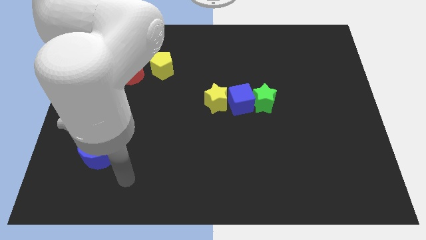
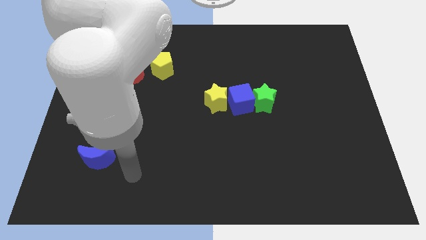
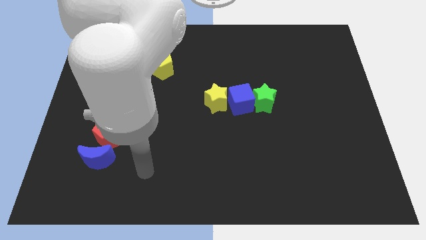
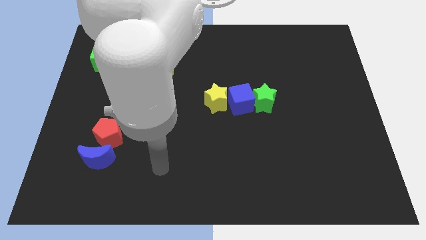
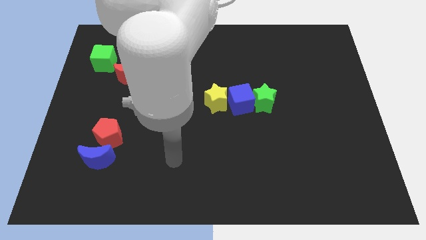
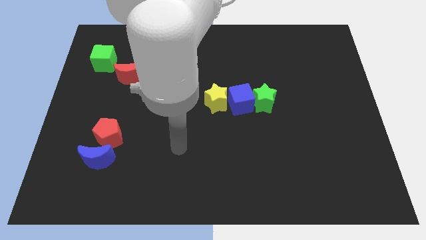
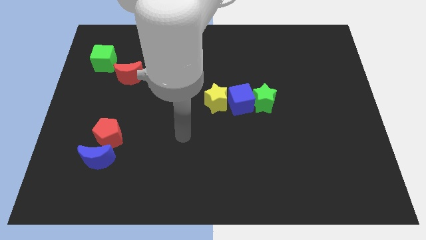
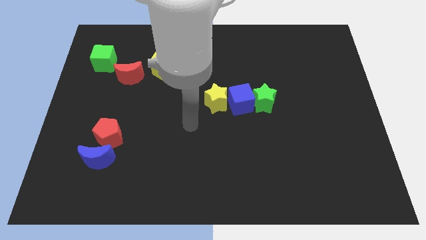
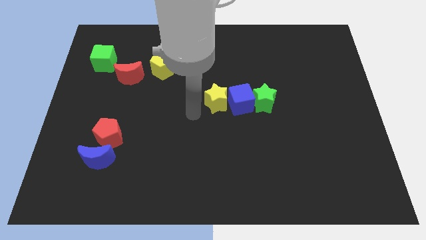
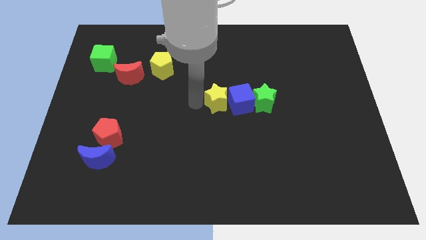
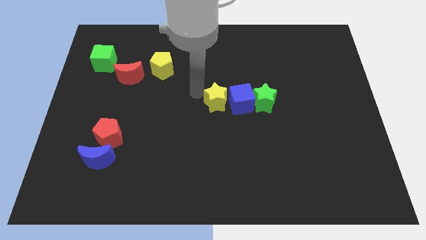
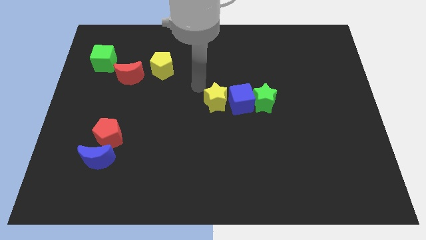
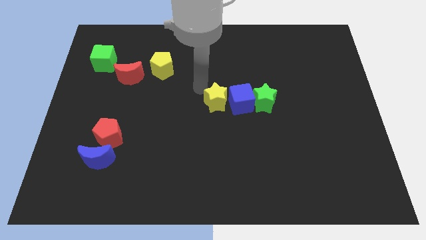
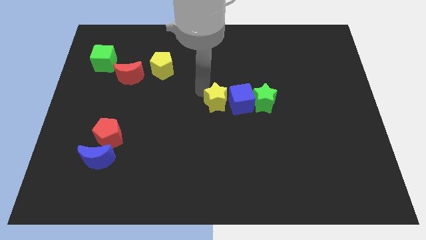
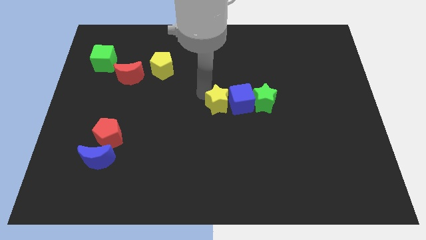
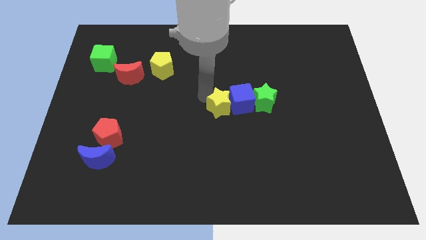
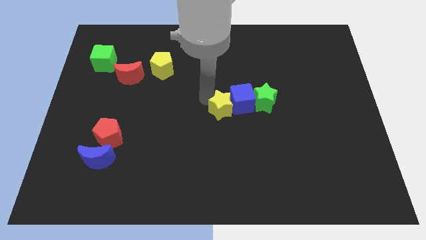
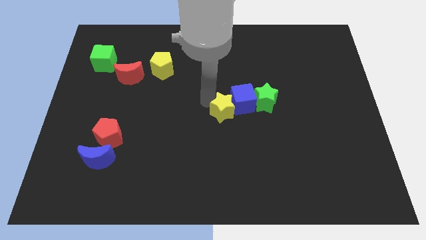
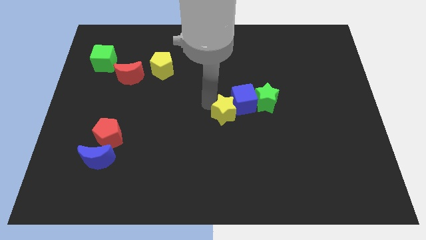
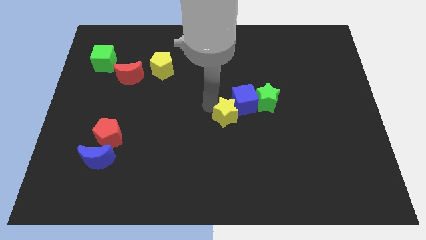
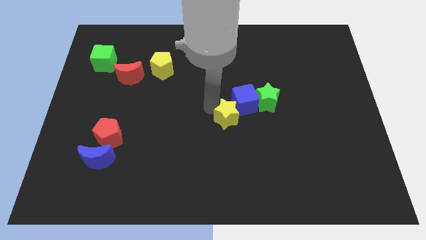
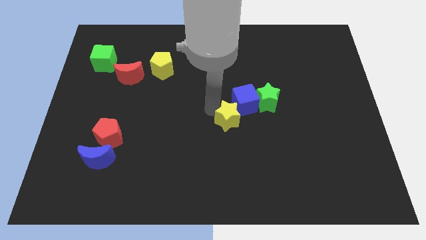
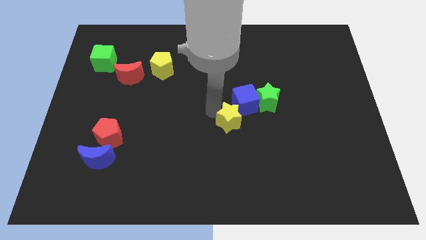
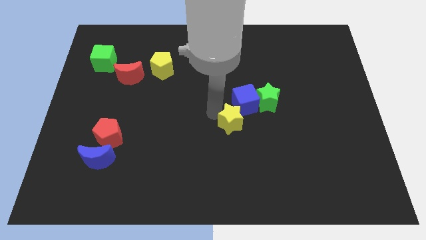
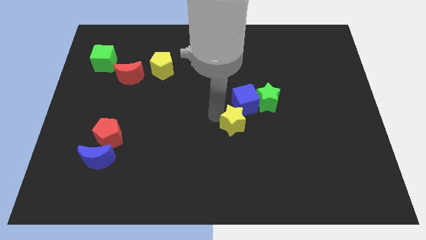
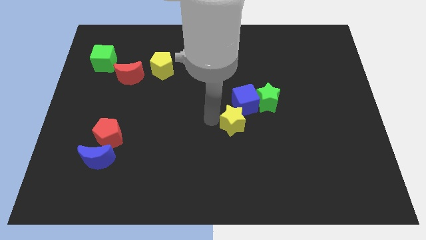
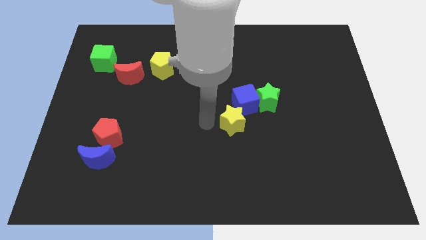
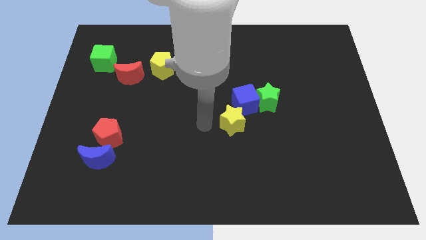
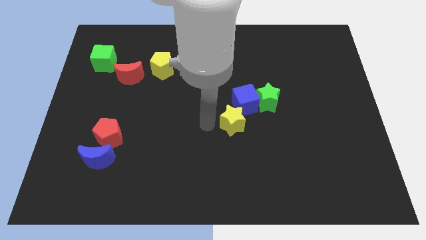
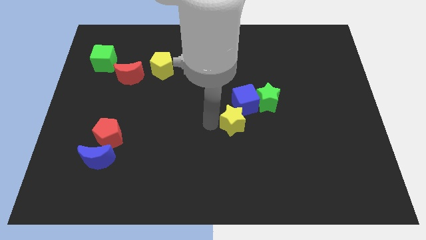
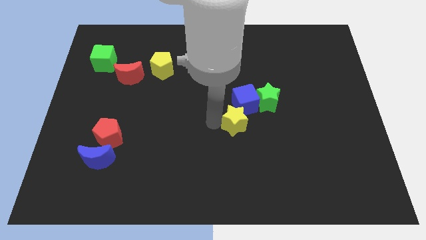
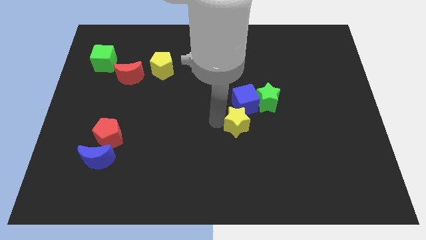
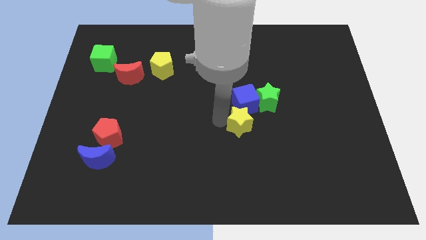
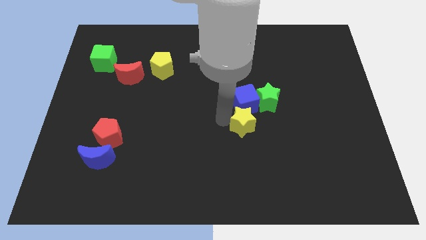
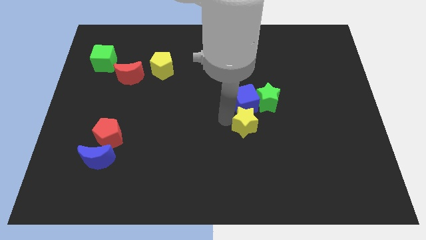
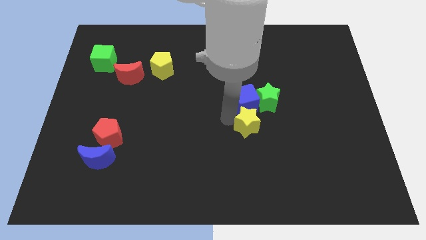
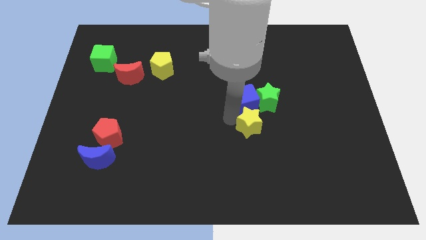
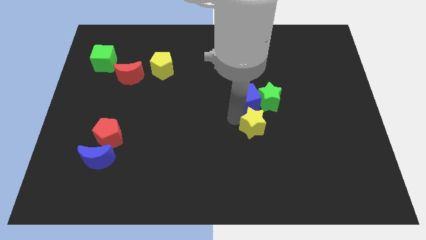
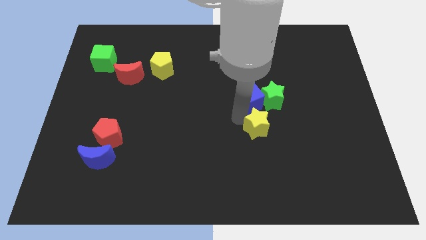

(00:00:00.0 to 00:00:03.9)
slightly push the yellow star right

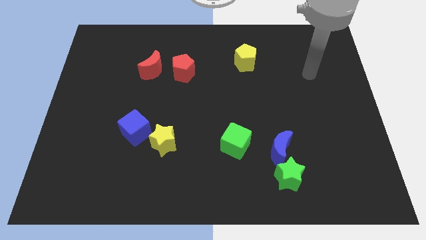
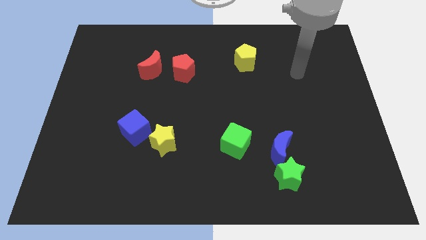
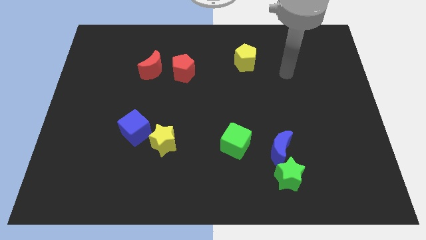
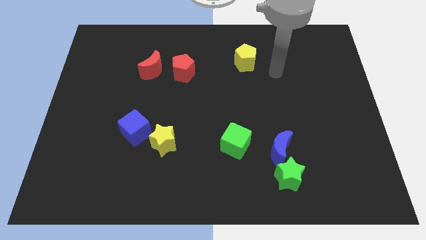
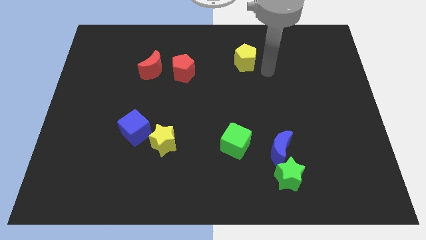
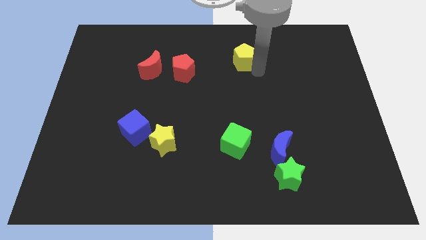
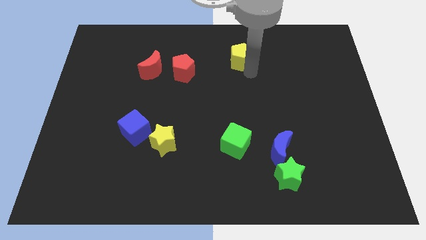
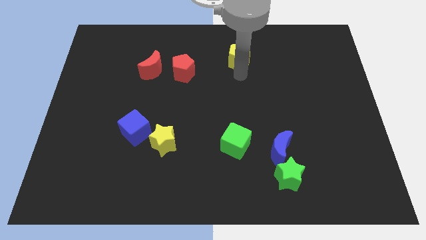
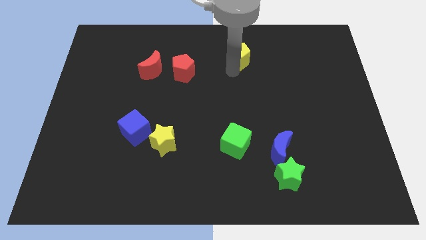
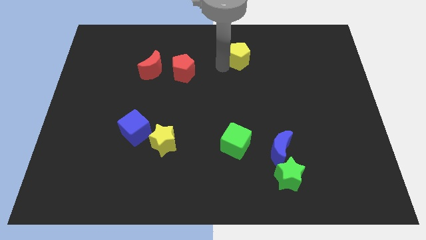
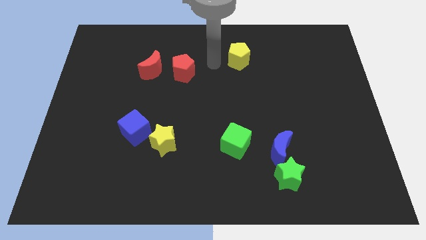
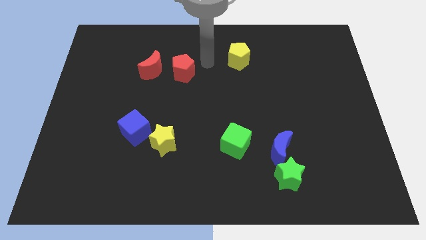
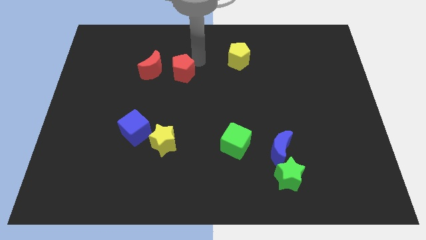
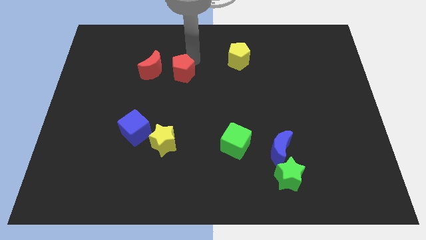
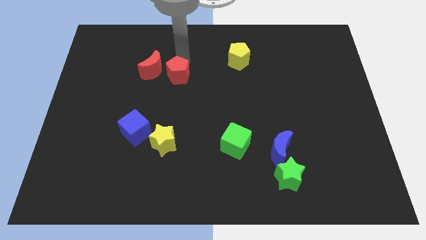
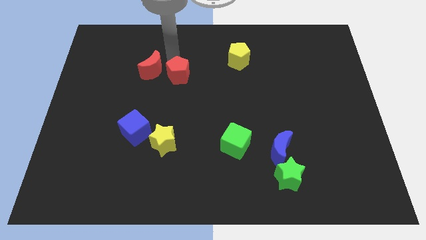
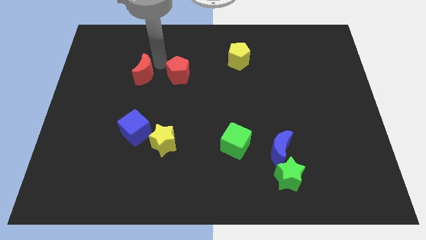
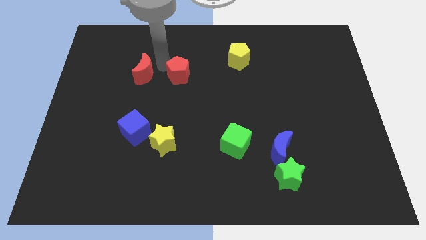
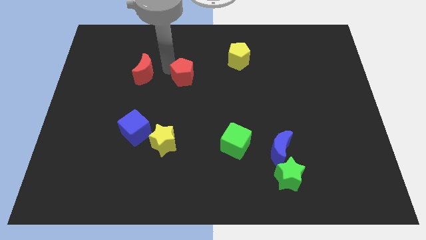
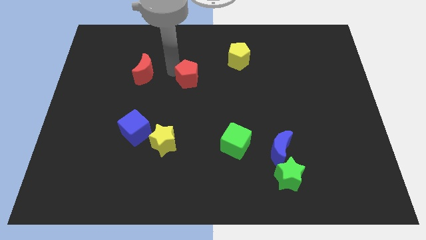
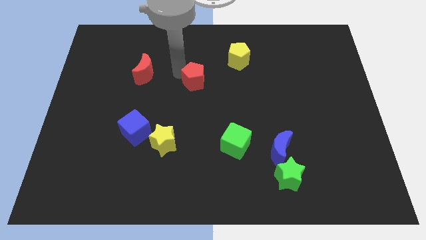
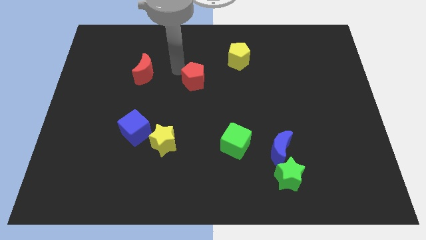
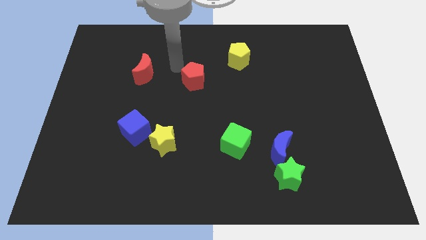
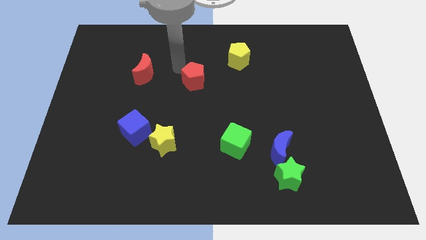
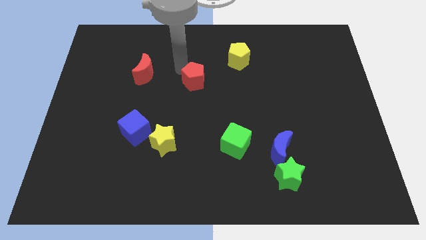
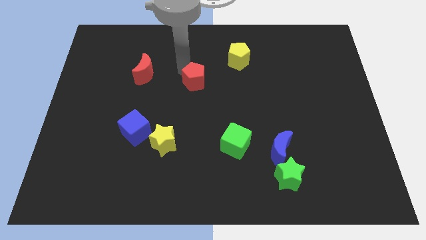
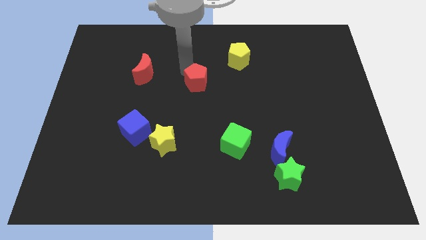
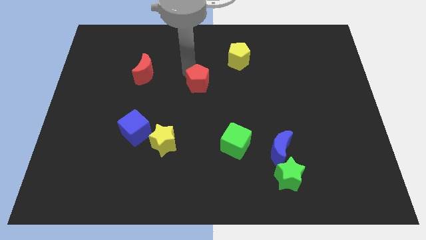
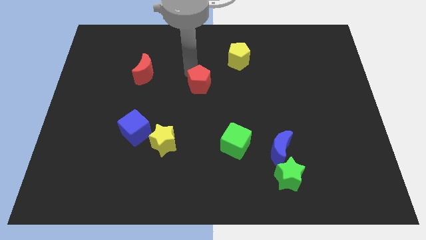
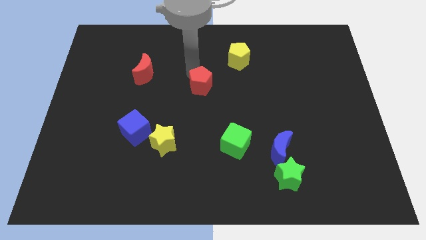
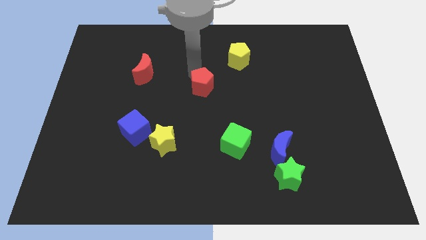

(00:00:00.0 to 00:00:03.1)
slightly move the red pentagon diagonally downwards and to the right

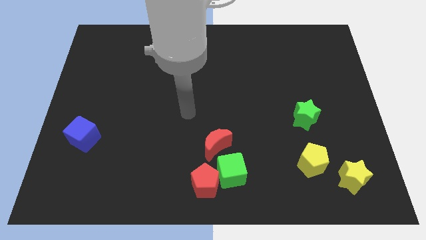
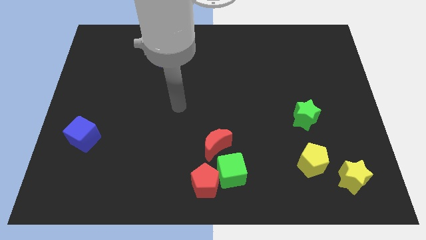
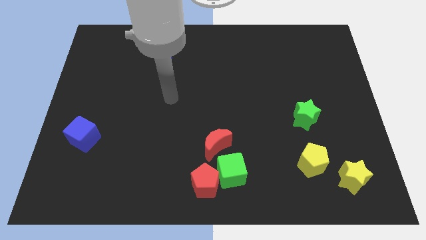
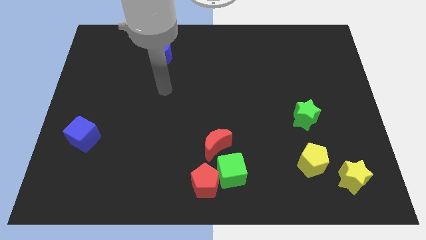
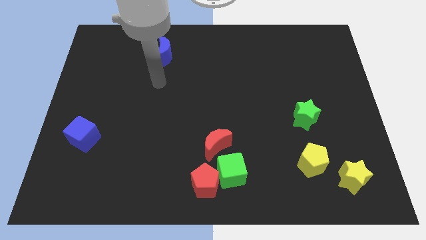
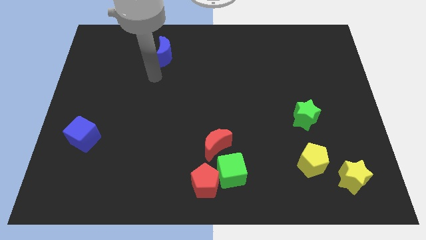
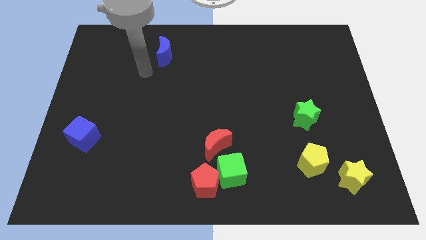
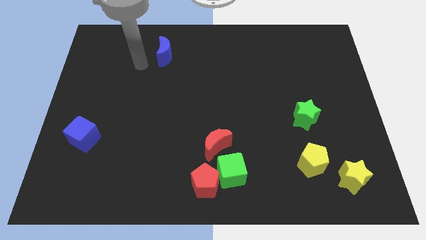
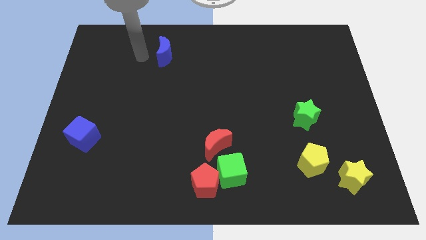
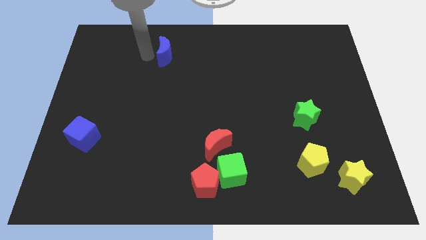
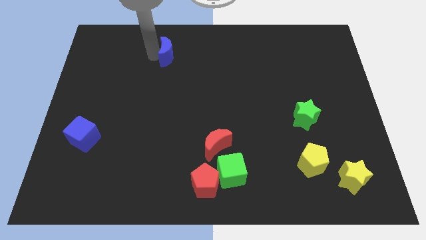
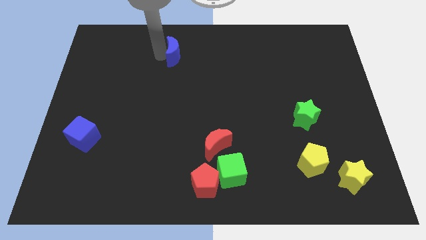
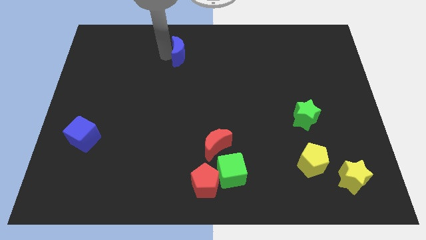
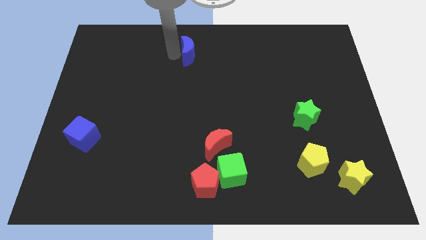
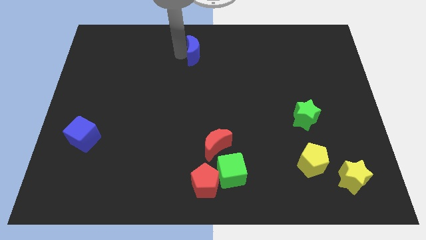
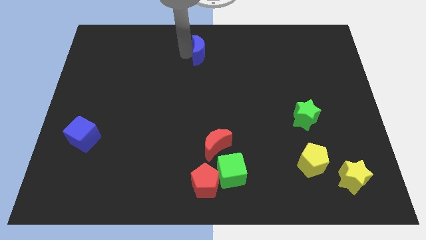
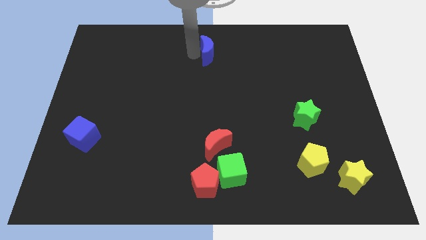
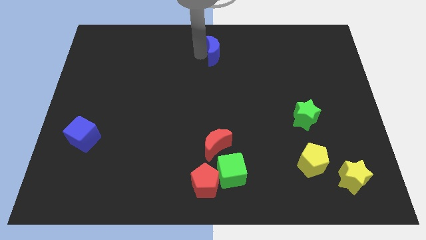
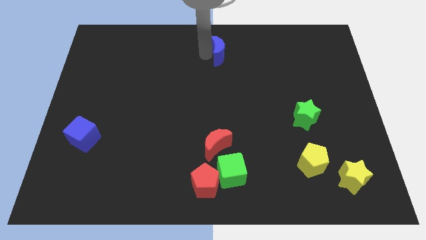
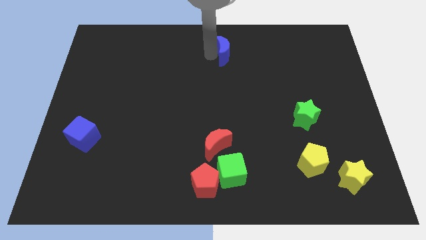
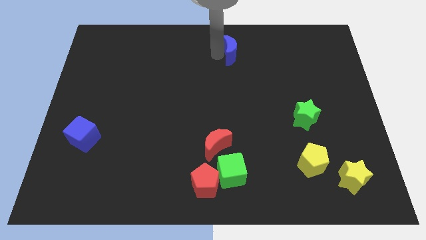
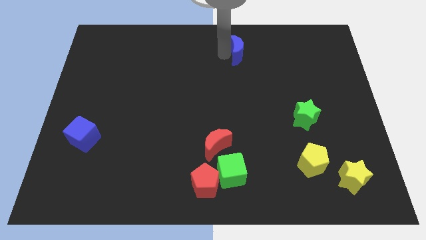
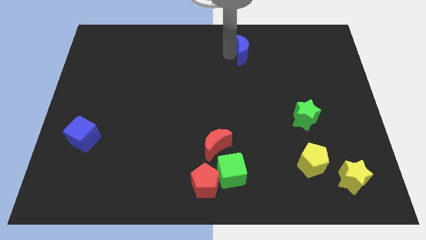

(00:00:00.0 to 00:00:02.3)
slide the blue moon to the right
